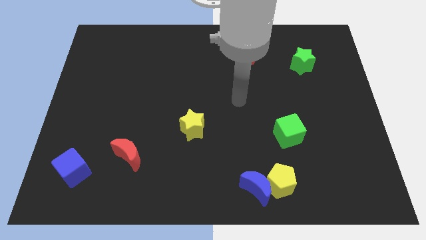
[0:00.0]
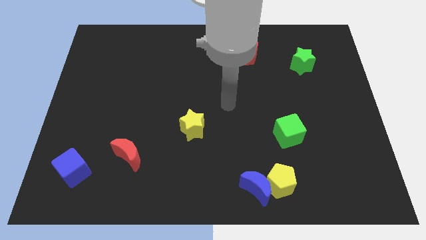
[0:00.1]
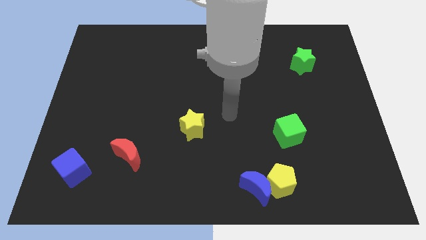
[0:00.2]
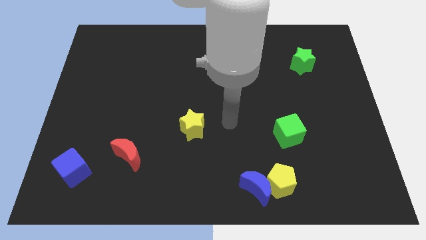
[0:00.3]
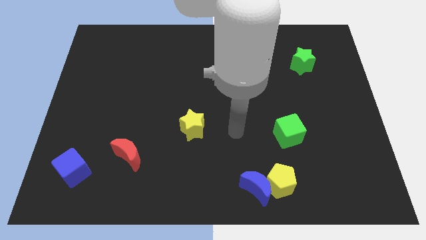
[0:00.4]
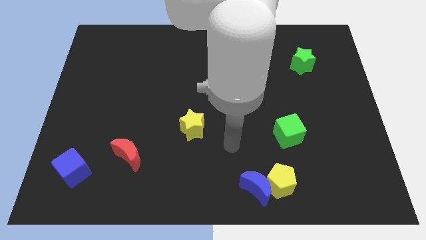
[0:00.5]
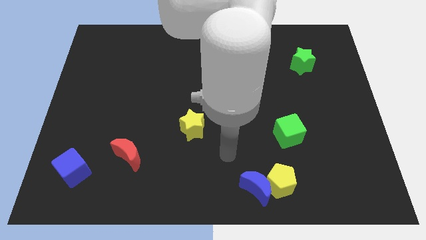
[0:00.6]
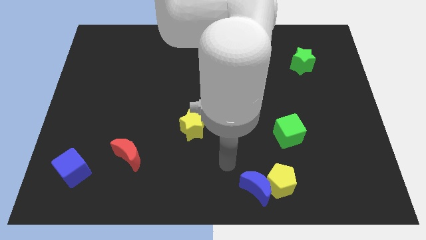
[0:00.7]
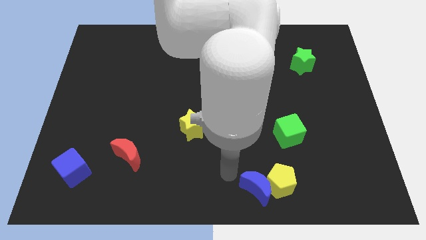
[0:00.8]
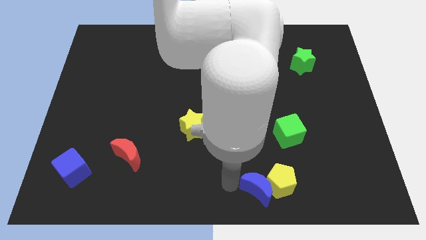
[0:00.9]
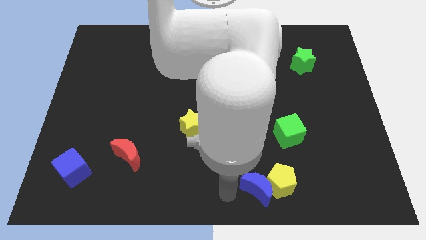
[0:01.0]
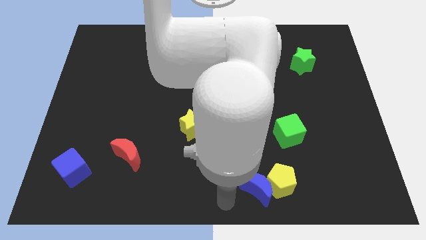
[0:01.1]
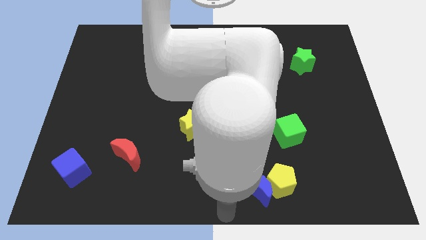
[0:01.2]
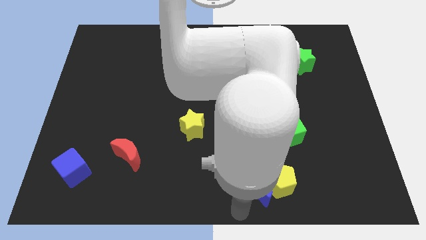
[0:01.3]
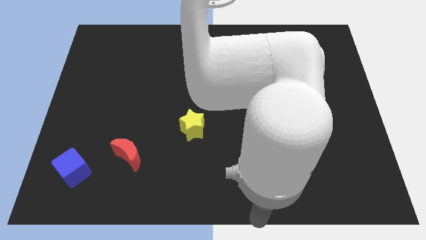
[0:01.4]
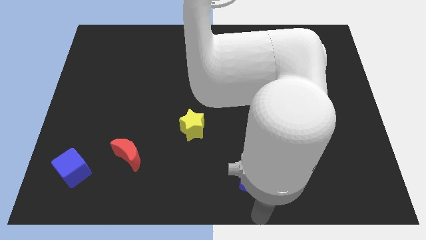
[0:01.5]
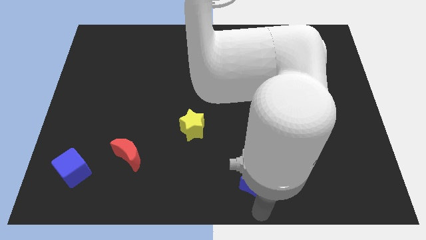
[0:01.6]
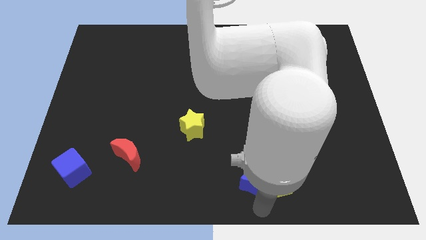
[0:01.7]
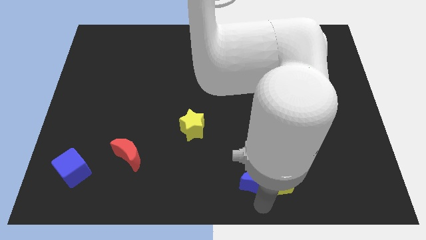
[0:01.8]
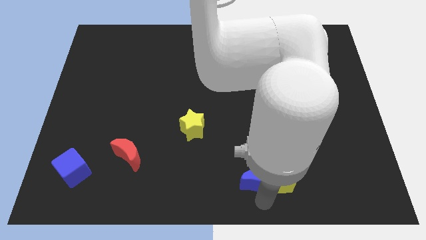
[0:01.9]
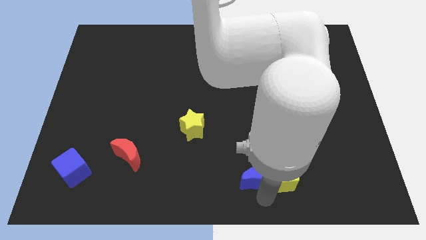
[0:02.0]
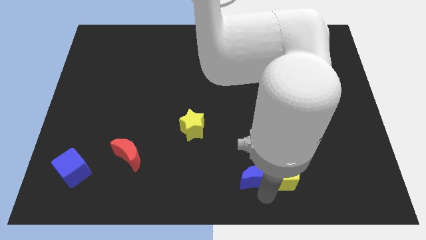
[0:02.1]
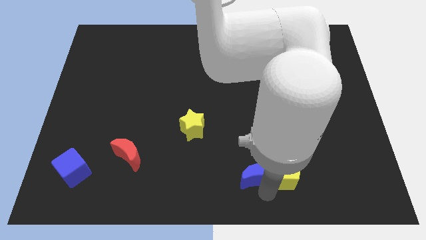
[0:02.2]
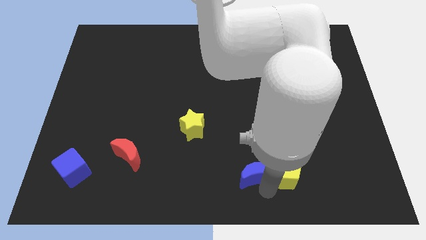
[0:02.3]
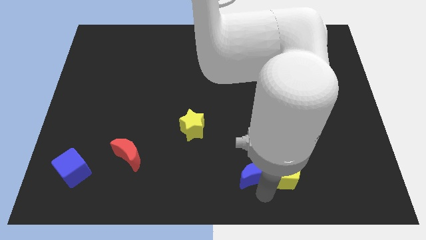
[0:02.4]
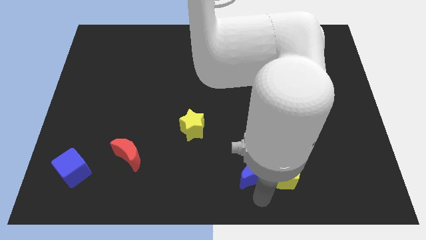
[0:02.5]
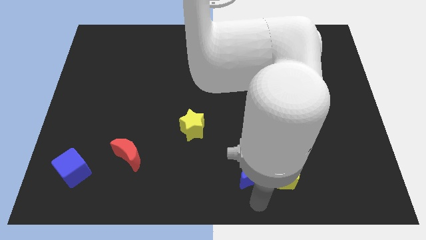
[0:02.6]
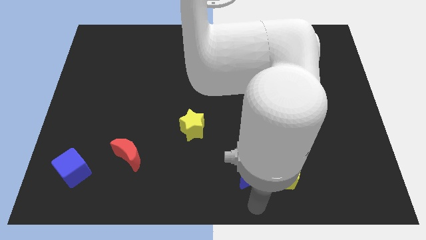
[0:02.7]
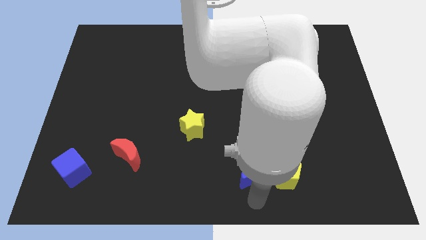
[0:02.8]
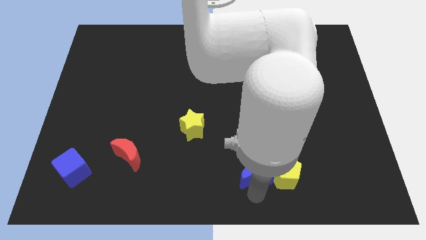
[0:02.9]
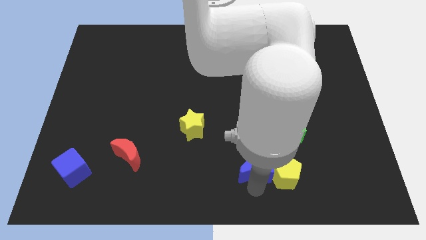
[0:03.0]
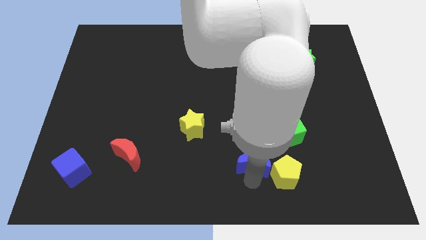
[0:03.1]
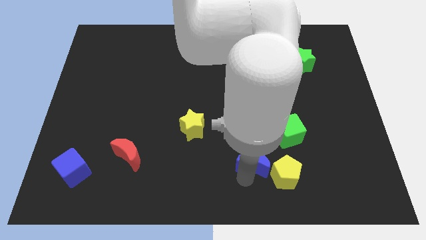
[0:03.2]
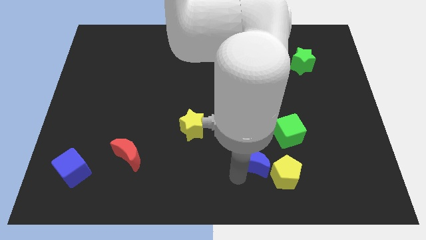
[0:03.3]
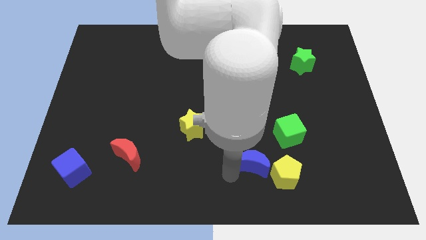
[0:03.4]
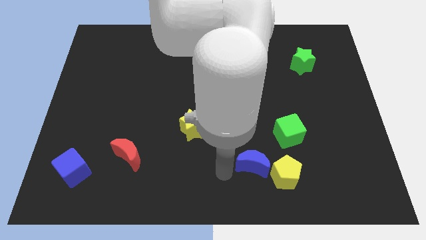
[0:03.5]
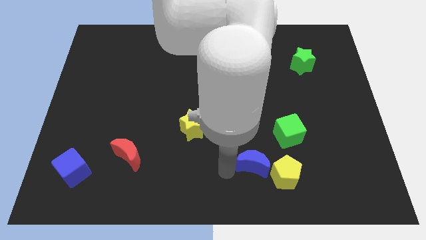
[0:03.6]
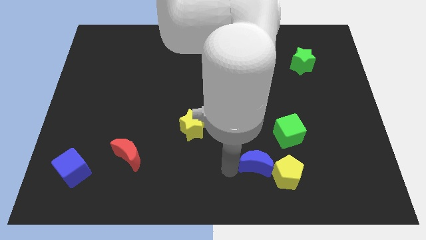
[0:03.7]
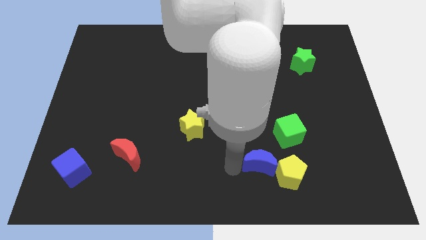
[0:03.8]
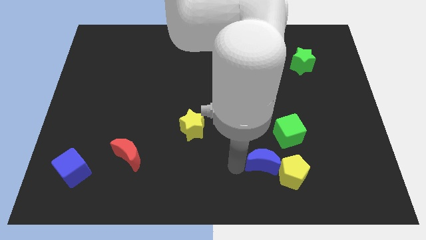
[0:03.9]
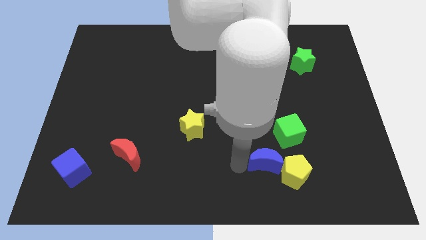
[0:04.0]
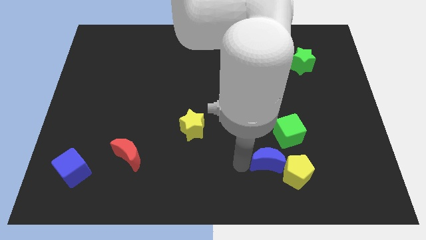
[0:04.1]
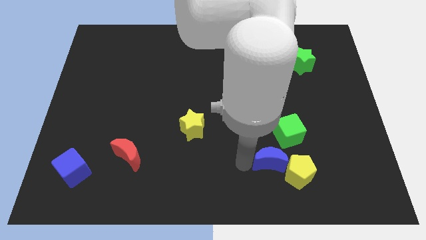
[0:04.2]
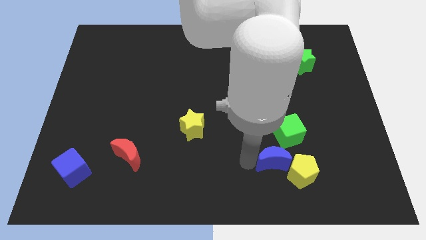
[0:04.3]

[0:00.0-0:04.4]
push the blue moon slightly up and right diagonally

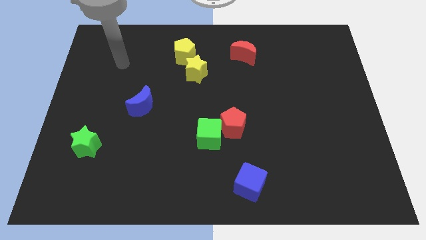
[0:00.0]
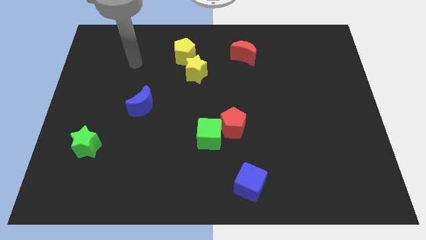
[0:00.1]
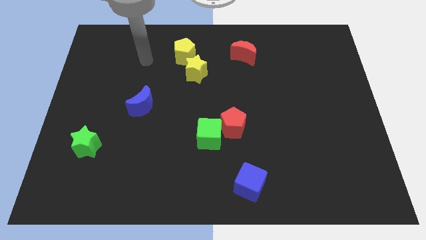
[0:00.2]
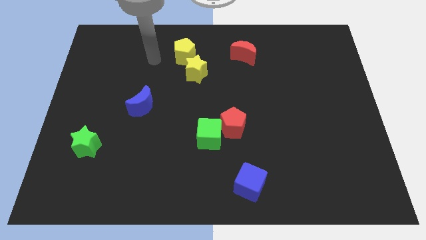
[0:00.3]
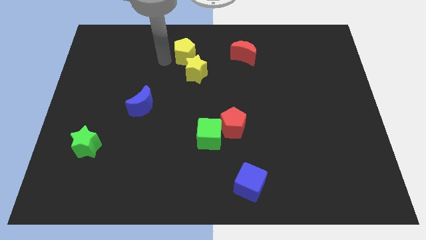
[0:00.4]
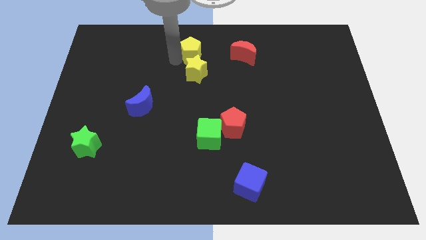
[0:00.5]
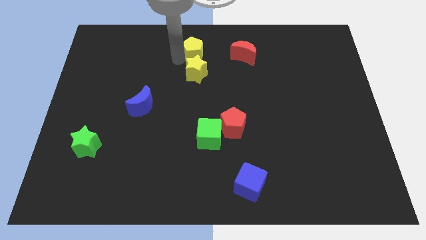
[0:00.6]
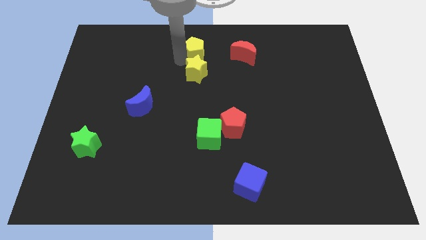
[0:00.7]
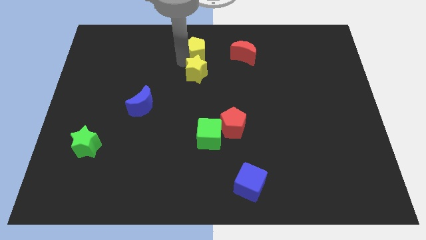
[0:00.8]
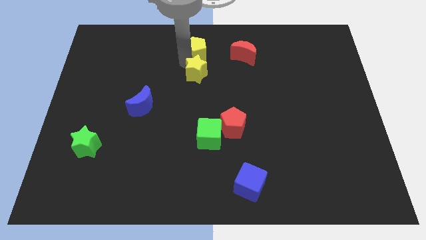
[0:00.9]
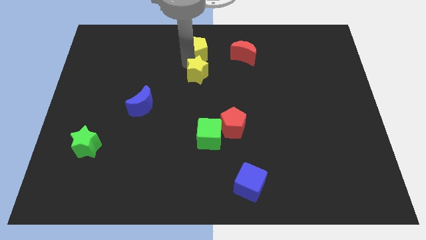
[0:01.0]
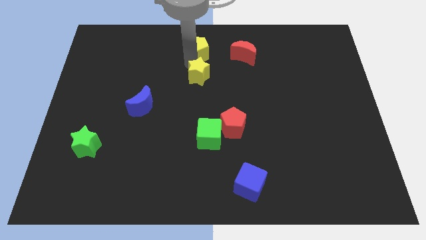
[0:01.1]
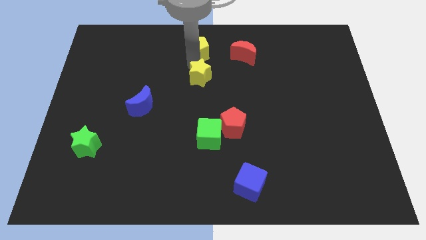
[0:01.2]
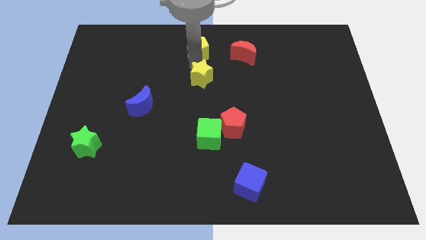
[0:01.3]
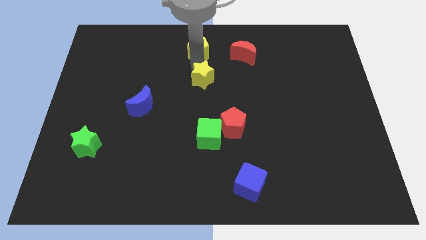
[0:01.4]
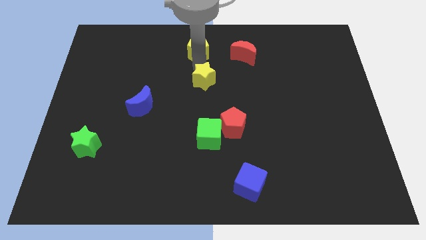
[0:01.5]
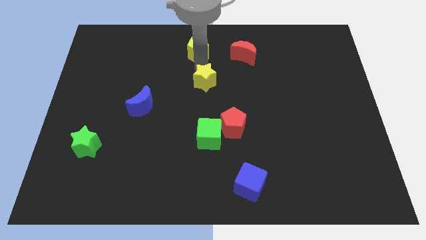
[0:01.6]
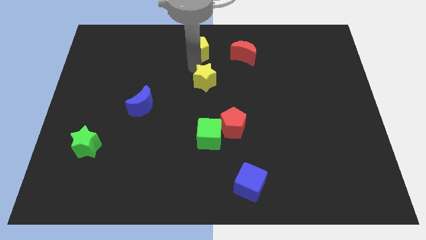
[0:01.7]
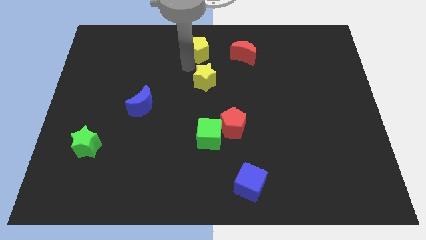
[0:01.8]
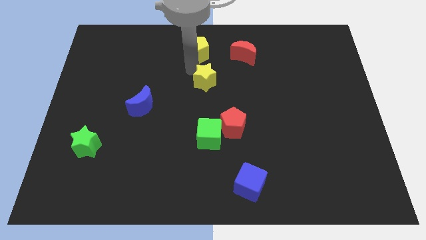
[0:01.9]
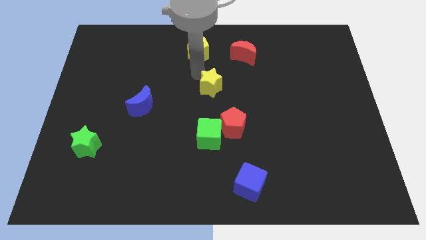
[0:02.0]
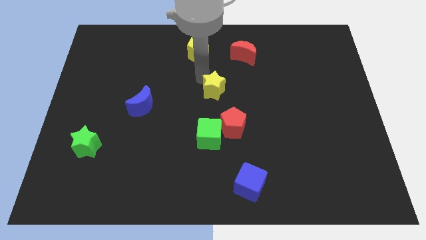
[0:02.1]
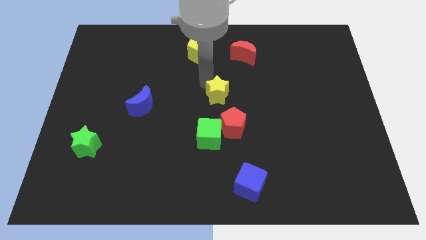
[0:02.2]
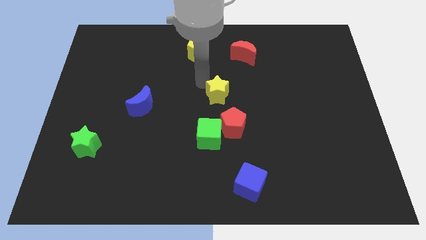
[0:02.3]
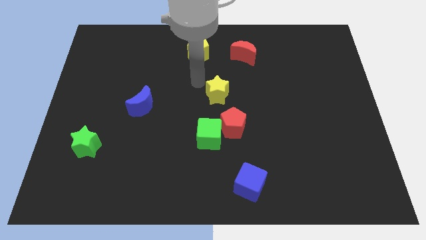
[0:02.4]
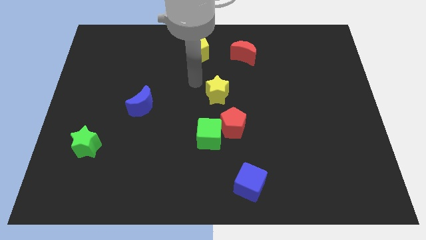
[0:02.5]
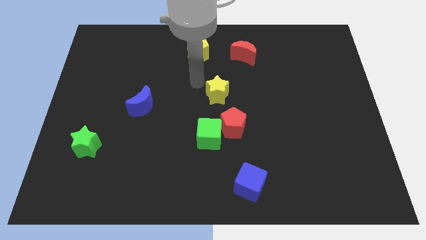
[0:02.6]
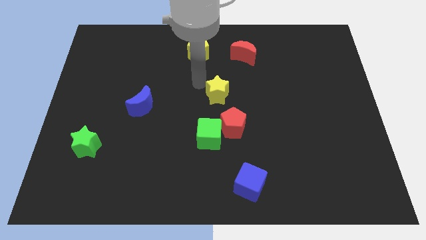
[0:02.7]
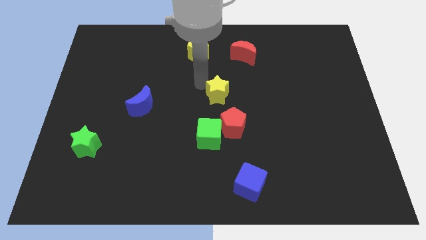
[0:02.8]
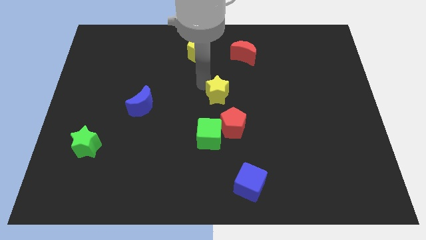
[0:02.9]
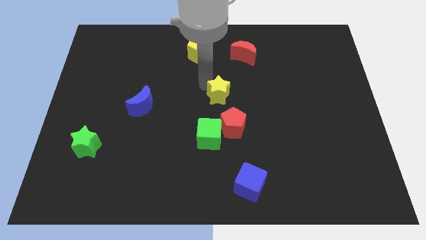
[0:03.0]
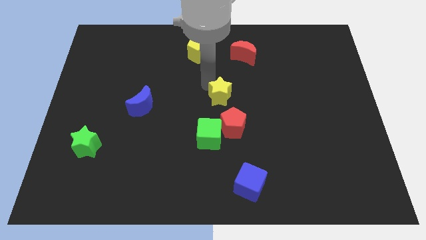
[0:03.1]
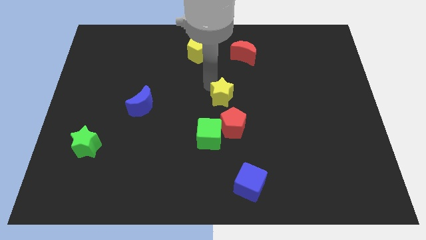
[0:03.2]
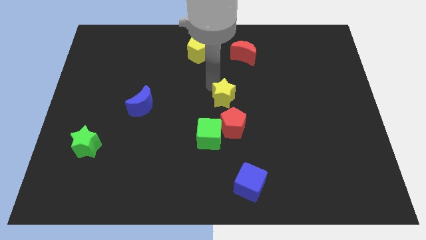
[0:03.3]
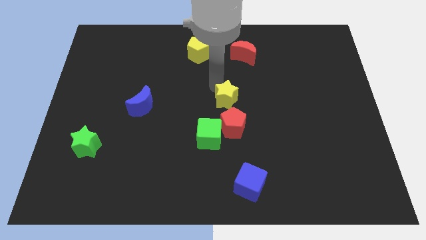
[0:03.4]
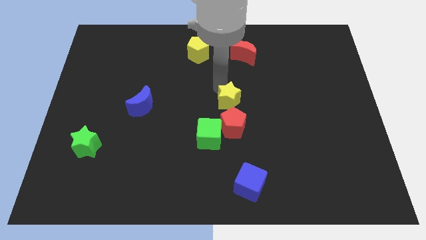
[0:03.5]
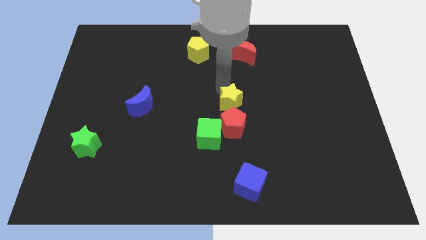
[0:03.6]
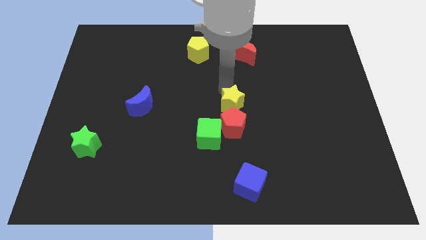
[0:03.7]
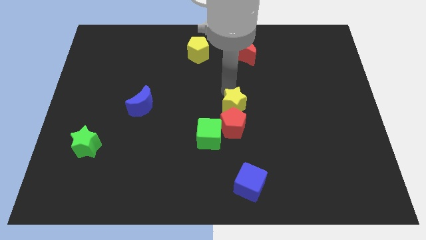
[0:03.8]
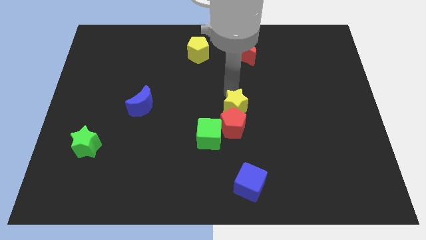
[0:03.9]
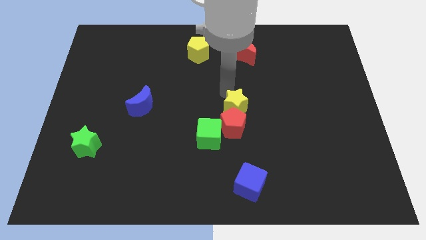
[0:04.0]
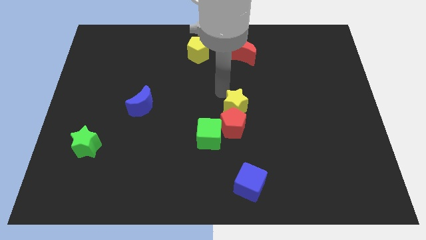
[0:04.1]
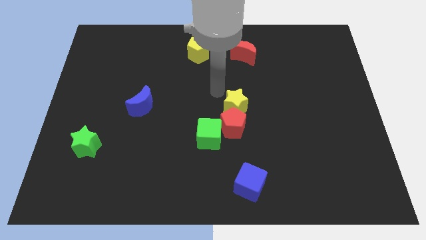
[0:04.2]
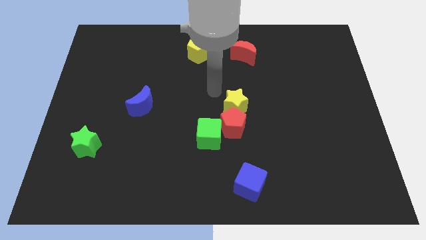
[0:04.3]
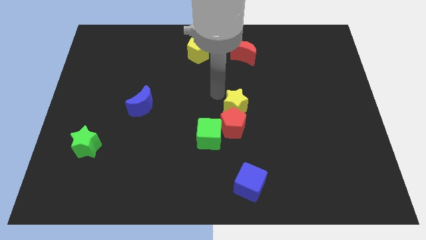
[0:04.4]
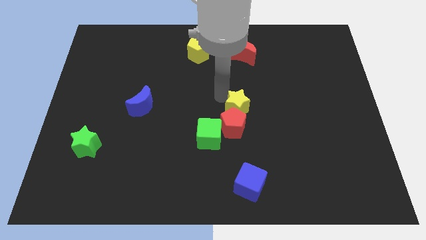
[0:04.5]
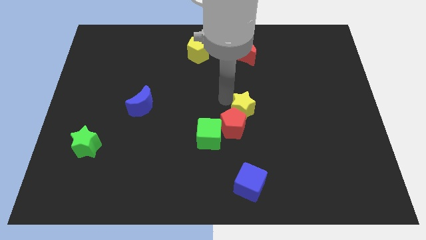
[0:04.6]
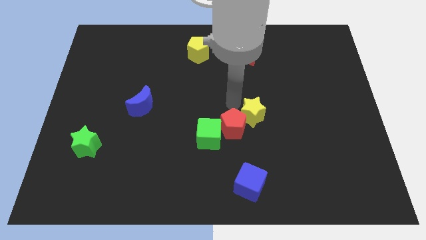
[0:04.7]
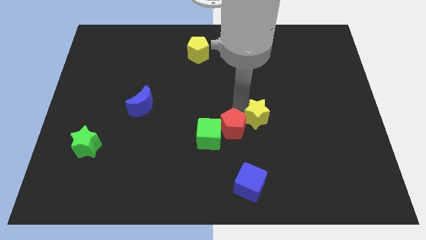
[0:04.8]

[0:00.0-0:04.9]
move the yellow star downwards and then to the right
